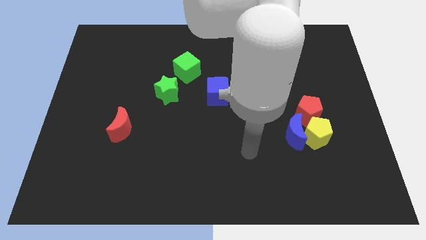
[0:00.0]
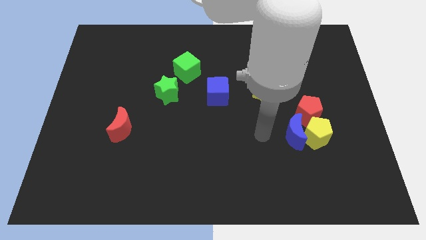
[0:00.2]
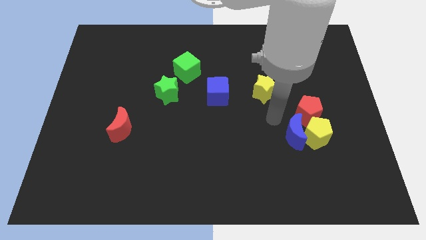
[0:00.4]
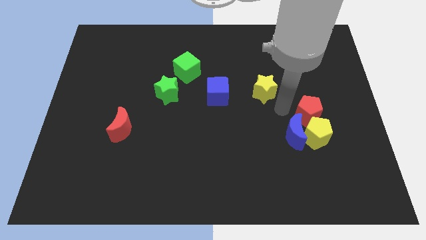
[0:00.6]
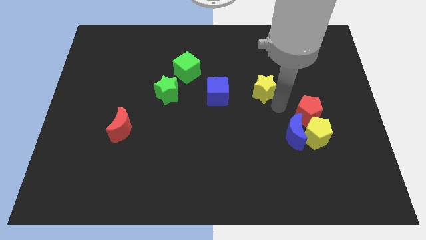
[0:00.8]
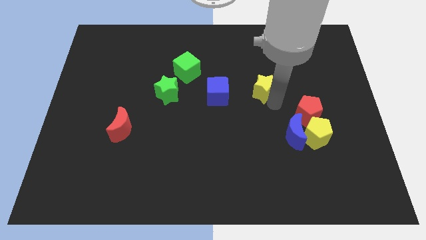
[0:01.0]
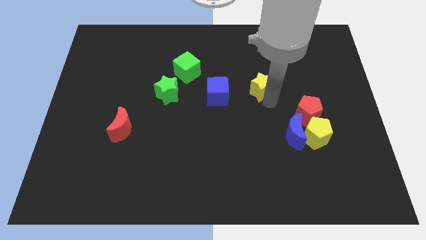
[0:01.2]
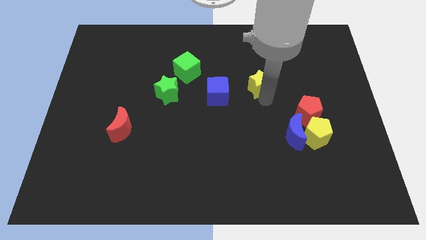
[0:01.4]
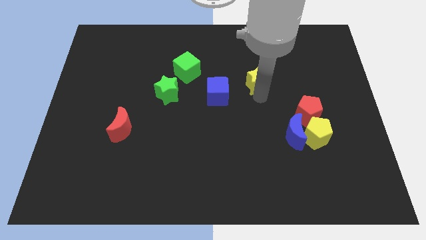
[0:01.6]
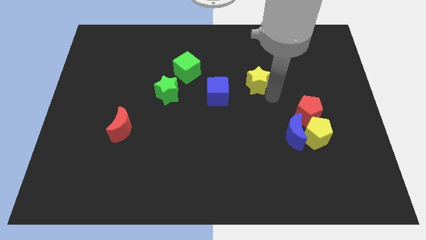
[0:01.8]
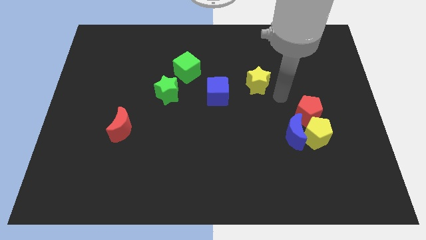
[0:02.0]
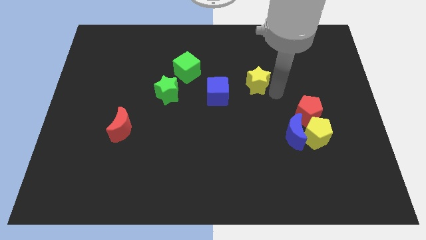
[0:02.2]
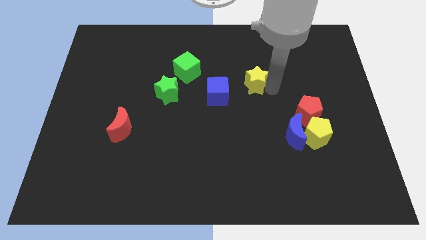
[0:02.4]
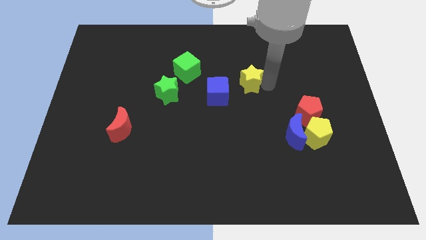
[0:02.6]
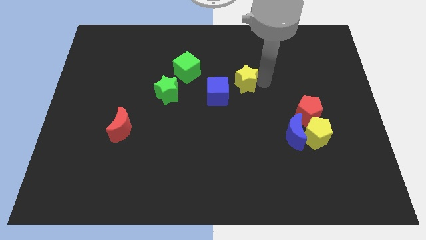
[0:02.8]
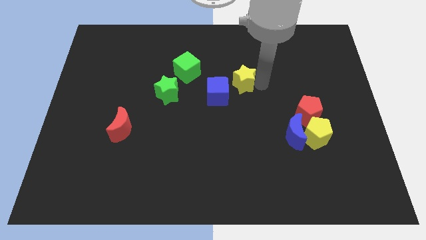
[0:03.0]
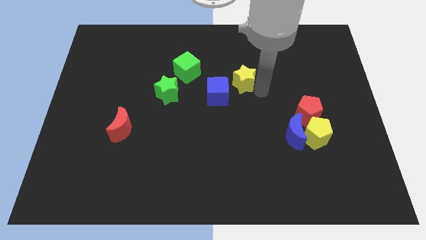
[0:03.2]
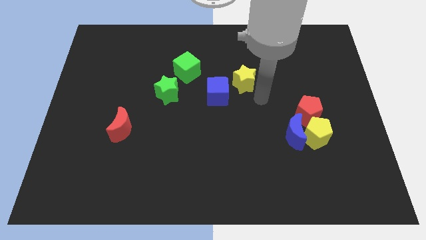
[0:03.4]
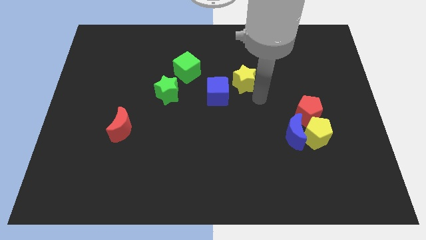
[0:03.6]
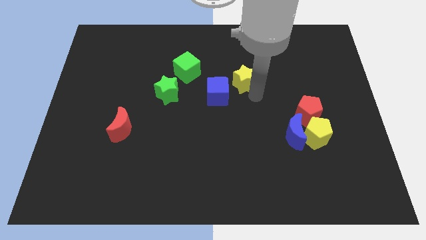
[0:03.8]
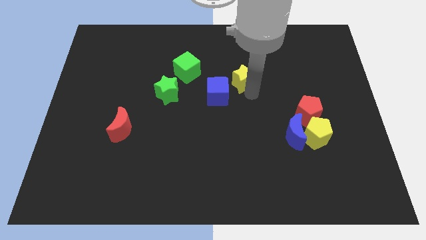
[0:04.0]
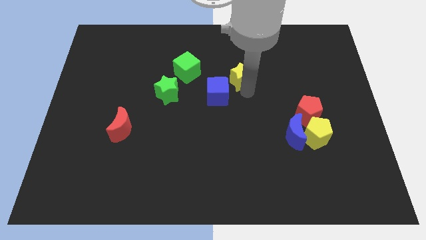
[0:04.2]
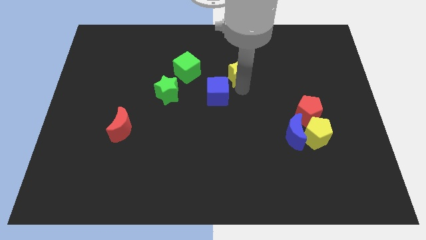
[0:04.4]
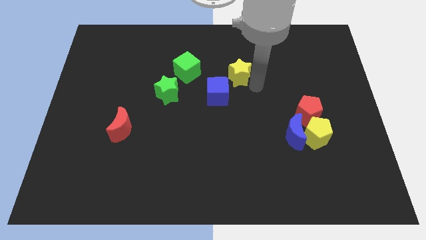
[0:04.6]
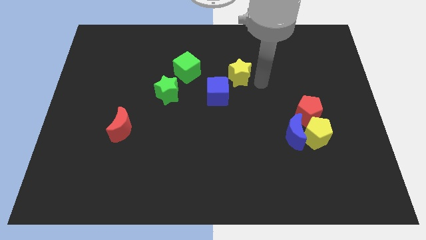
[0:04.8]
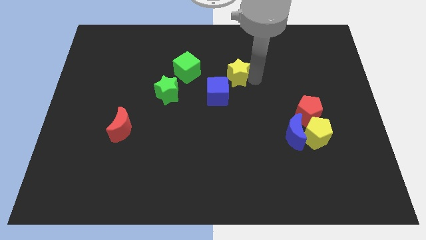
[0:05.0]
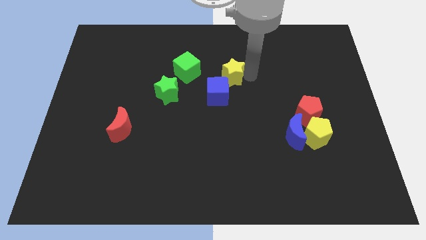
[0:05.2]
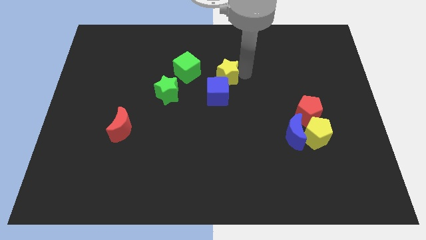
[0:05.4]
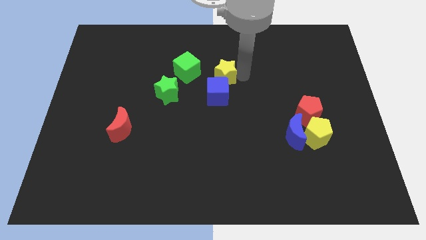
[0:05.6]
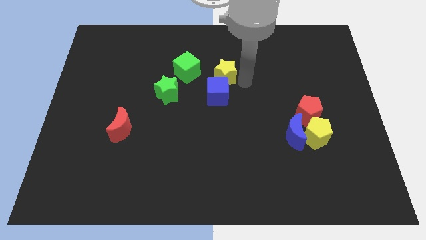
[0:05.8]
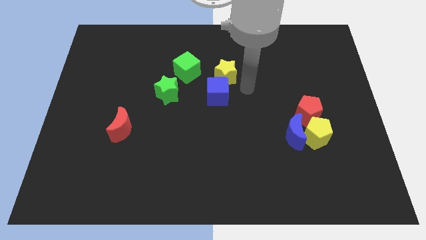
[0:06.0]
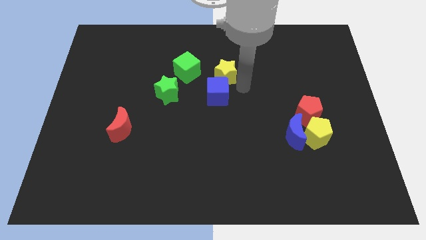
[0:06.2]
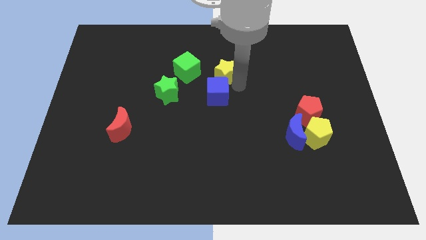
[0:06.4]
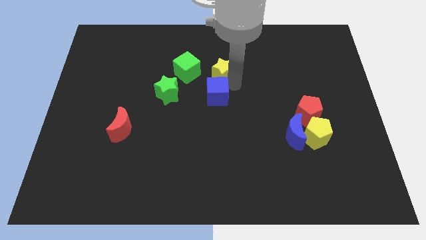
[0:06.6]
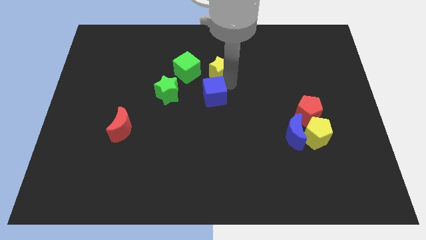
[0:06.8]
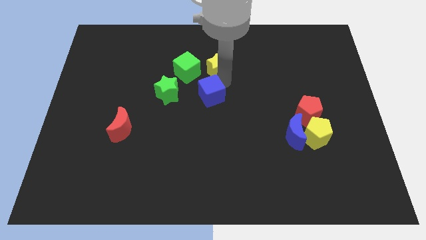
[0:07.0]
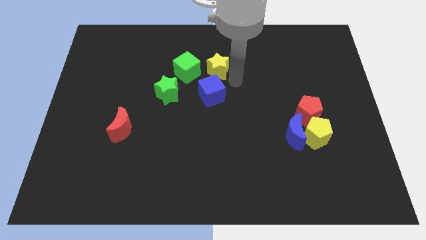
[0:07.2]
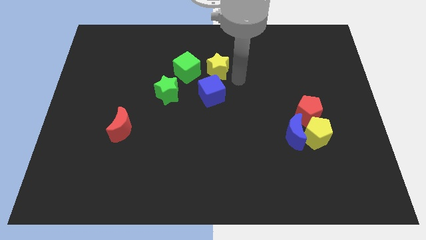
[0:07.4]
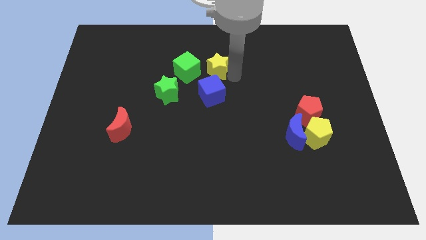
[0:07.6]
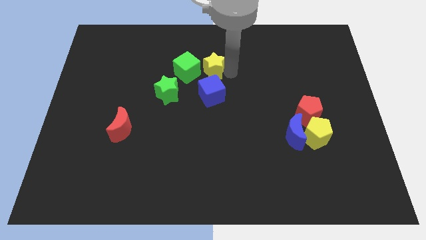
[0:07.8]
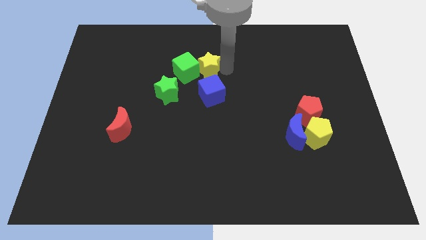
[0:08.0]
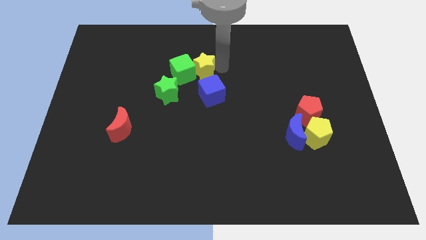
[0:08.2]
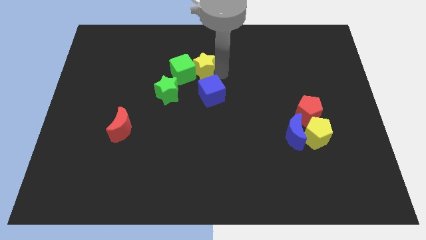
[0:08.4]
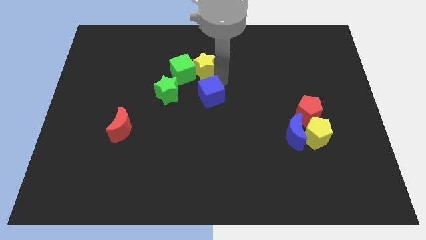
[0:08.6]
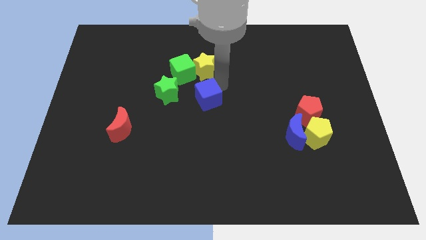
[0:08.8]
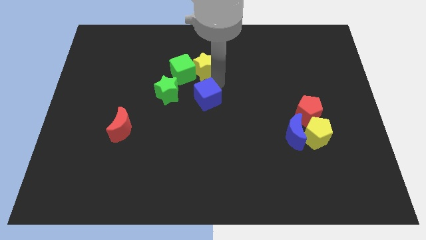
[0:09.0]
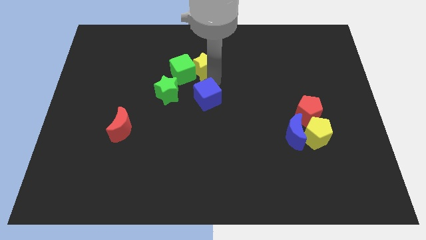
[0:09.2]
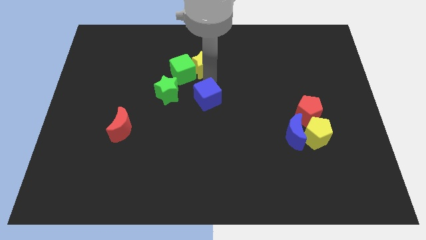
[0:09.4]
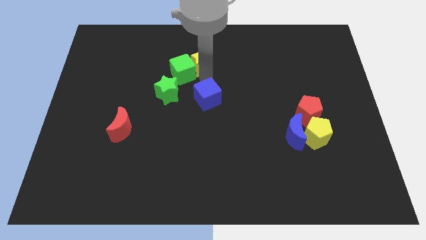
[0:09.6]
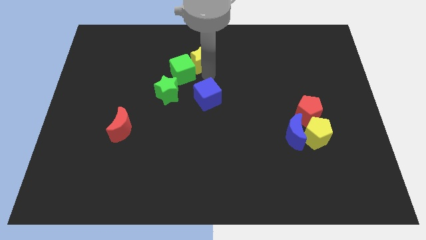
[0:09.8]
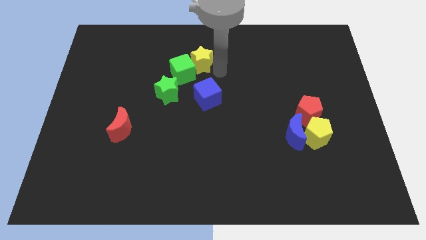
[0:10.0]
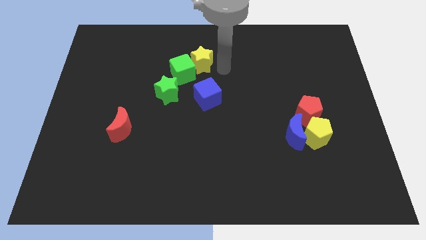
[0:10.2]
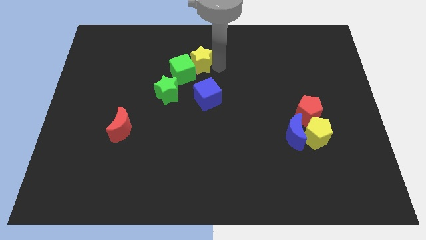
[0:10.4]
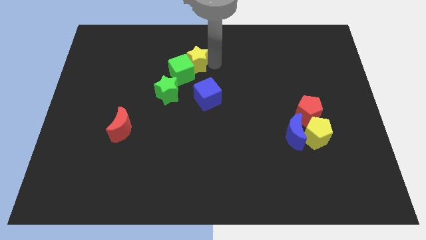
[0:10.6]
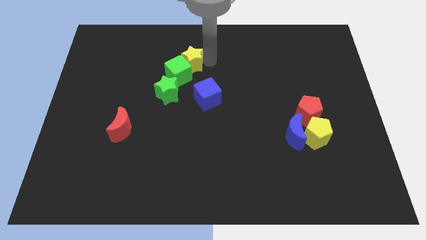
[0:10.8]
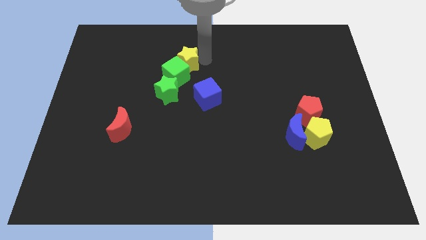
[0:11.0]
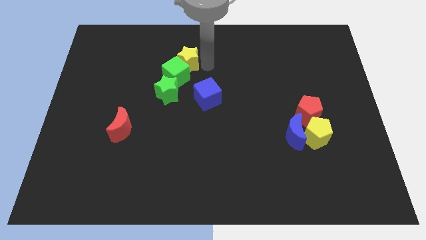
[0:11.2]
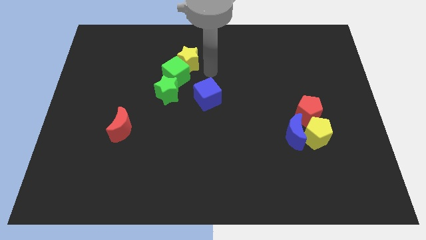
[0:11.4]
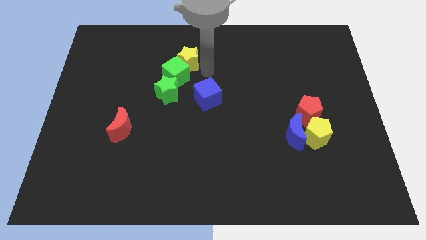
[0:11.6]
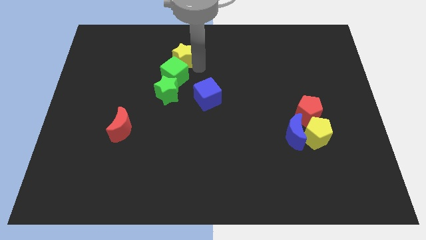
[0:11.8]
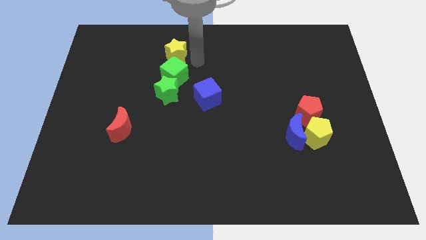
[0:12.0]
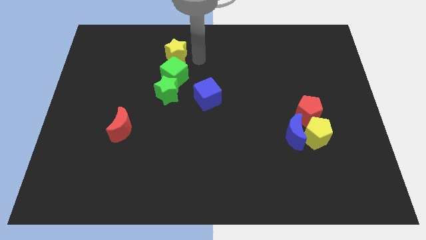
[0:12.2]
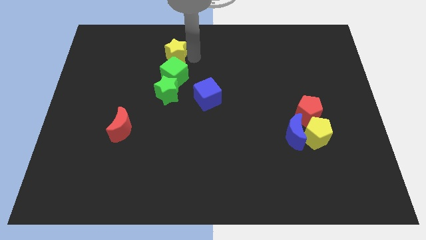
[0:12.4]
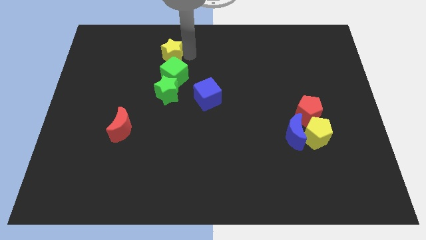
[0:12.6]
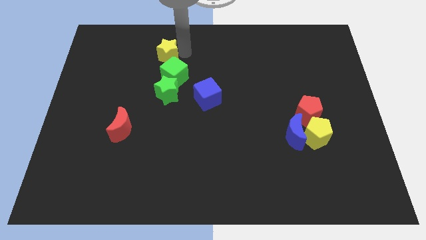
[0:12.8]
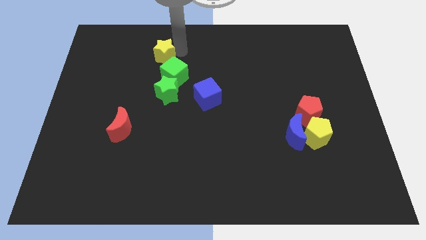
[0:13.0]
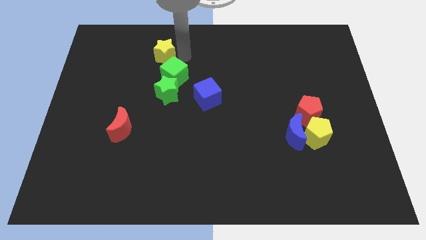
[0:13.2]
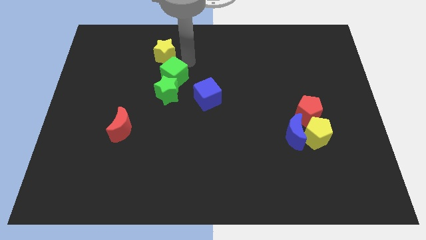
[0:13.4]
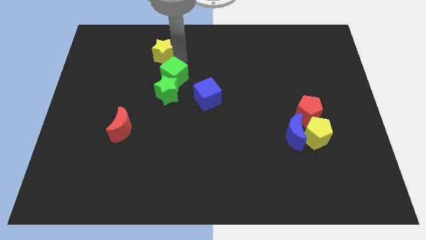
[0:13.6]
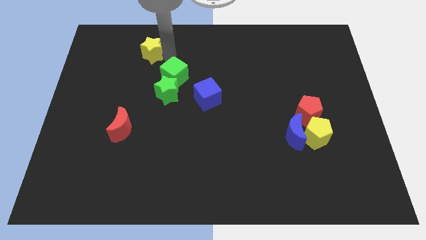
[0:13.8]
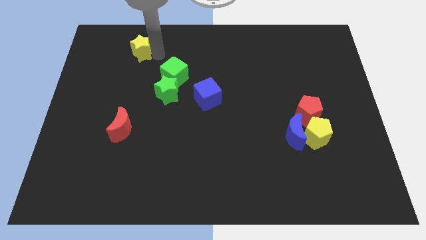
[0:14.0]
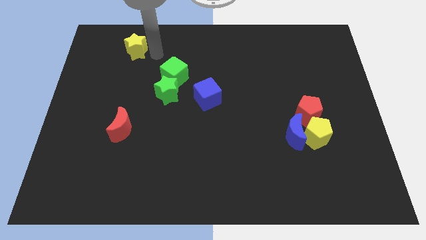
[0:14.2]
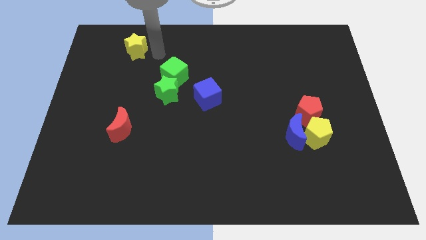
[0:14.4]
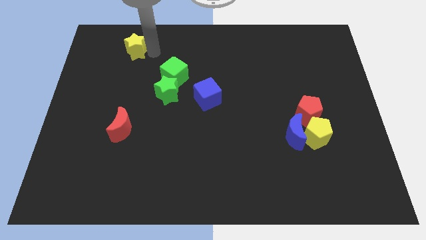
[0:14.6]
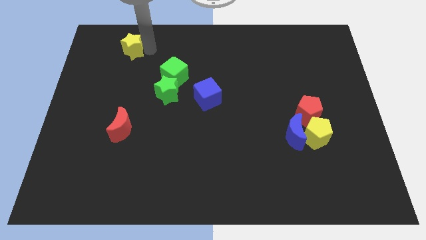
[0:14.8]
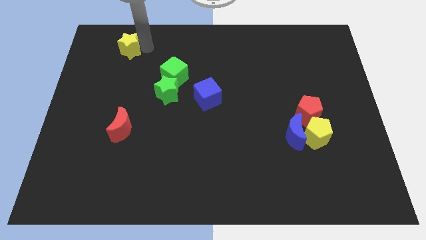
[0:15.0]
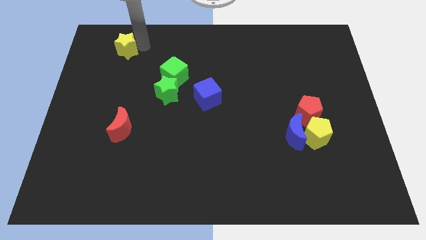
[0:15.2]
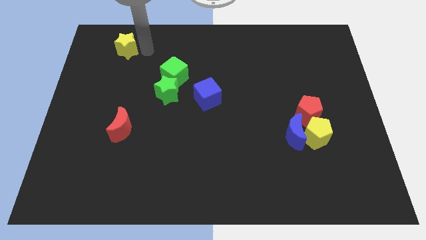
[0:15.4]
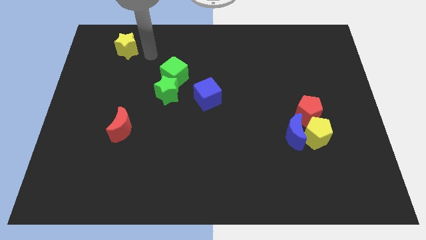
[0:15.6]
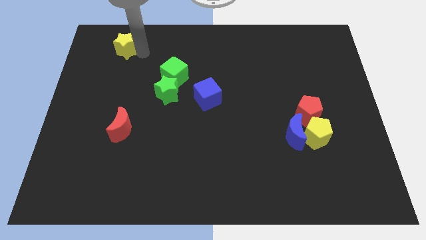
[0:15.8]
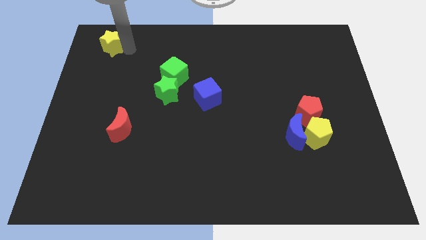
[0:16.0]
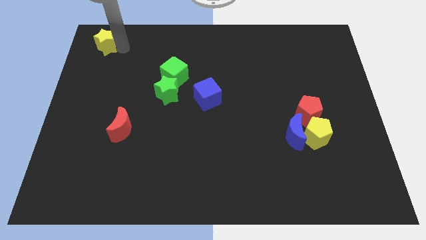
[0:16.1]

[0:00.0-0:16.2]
push the yellow star to the upper left corner
